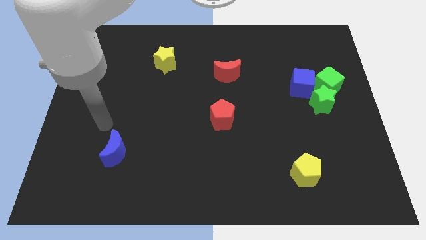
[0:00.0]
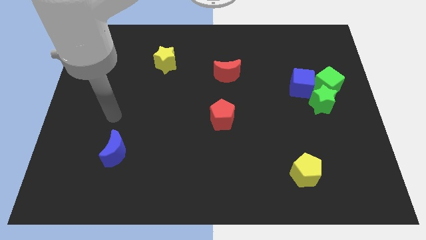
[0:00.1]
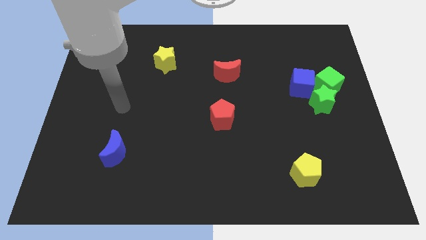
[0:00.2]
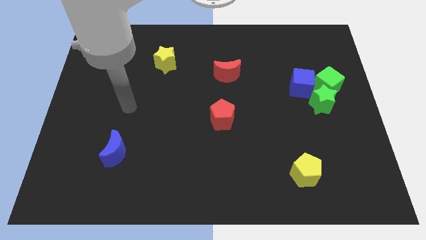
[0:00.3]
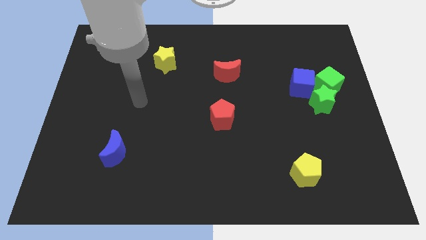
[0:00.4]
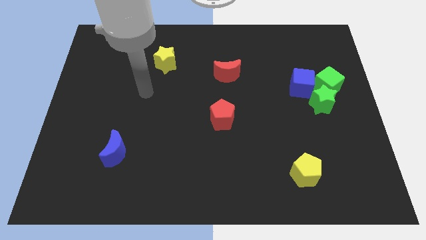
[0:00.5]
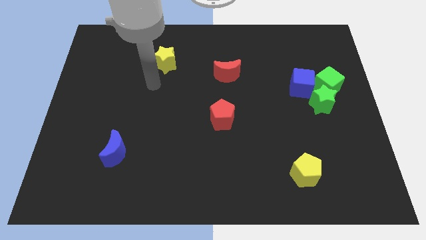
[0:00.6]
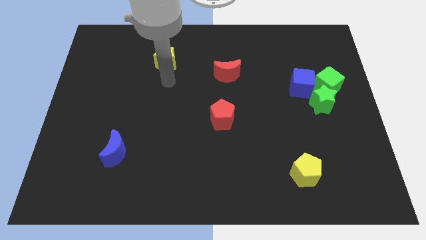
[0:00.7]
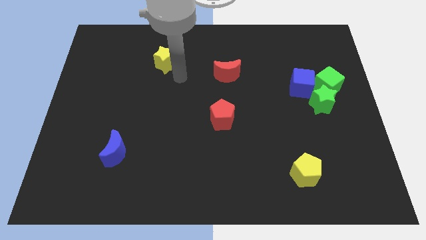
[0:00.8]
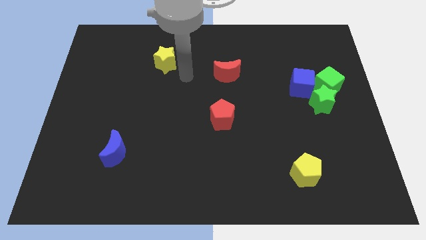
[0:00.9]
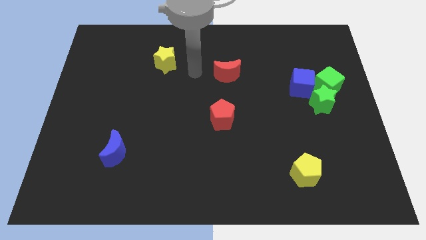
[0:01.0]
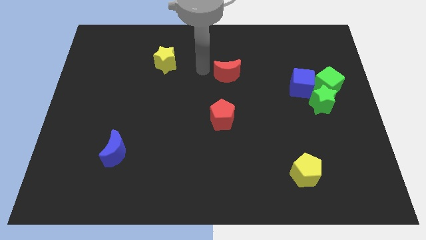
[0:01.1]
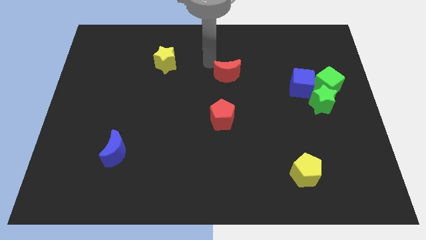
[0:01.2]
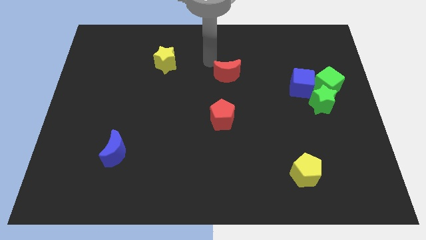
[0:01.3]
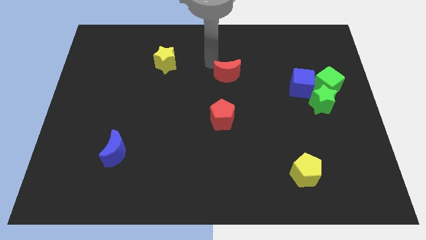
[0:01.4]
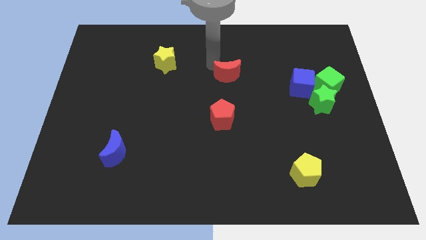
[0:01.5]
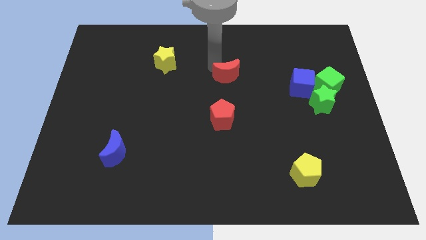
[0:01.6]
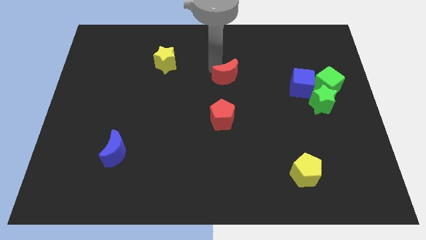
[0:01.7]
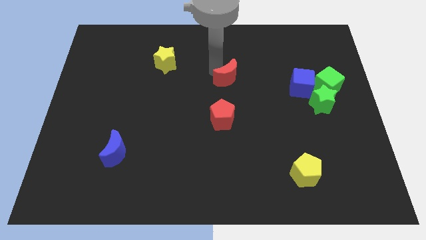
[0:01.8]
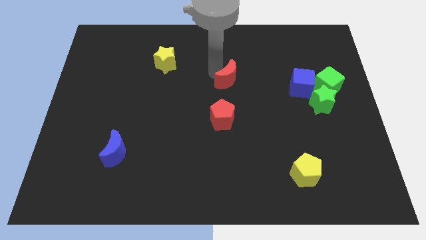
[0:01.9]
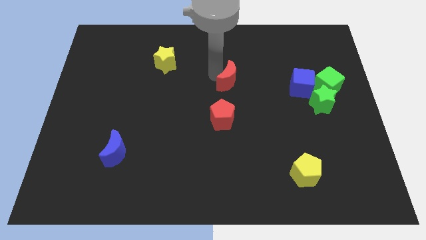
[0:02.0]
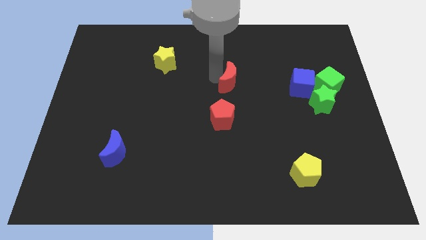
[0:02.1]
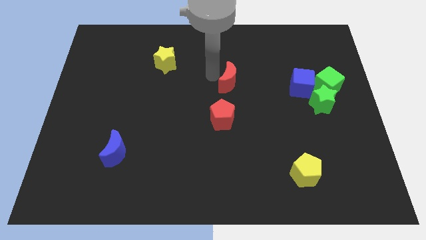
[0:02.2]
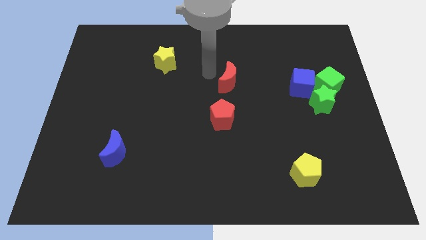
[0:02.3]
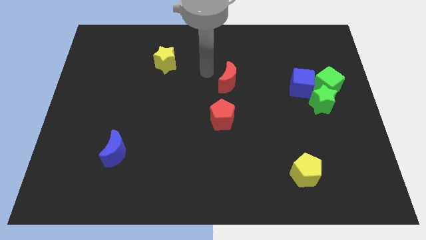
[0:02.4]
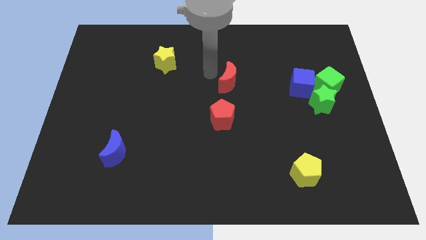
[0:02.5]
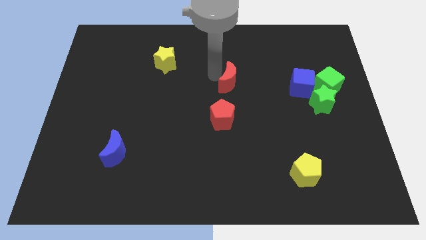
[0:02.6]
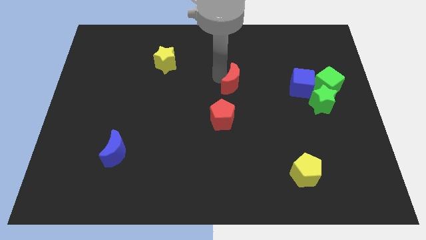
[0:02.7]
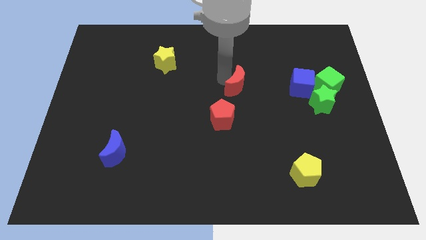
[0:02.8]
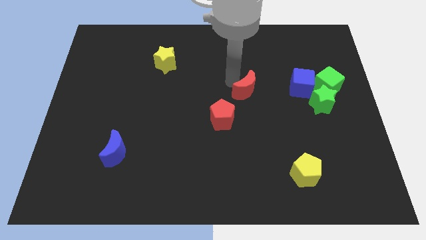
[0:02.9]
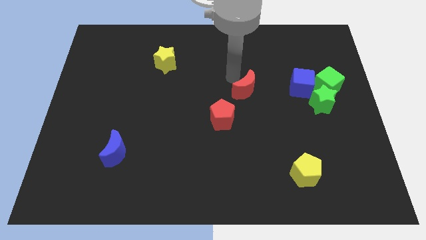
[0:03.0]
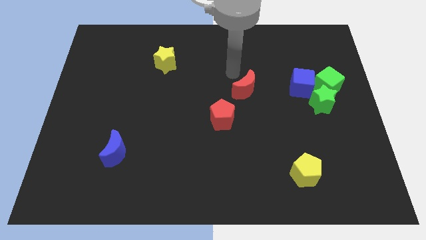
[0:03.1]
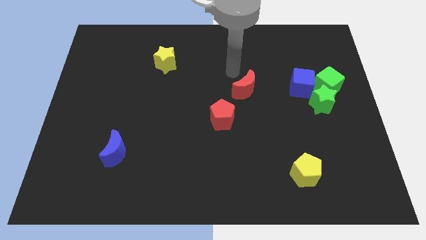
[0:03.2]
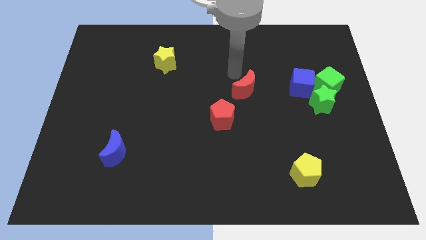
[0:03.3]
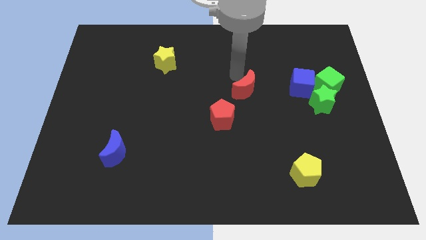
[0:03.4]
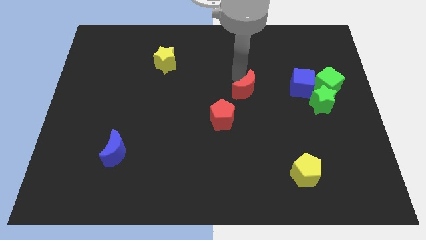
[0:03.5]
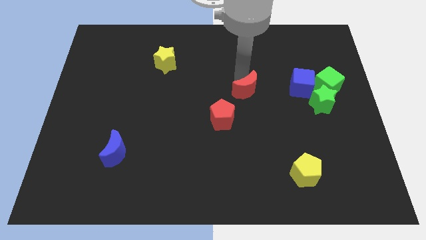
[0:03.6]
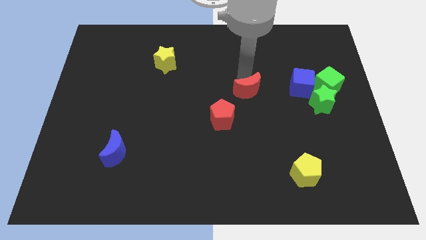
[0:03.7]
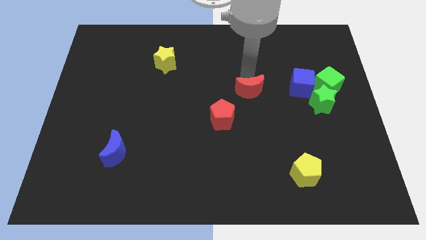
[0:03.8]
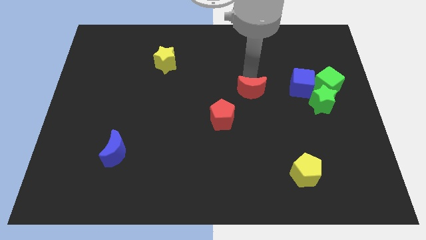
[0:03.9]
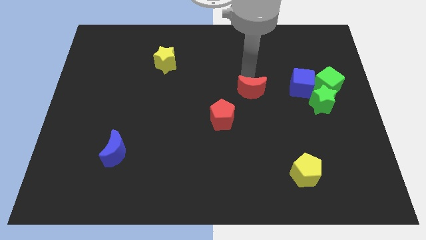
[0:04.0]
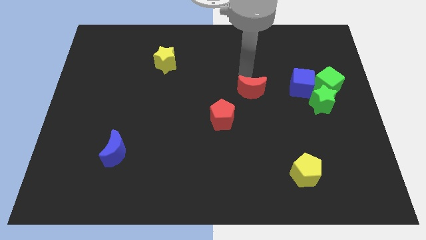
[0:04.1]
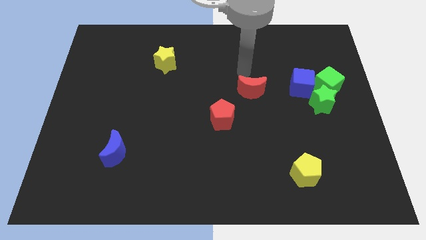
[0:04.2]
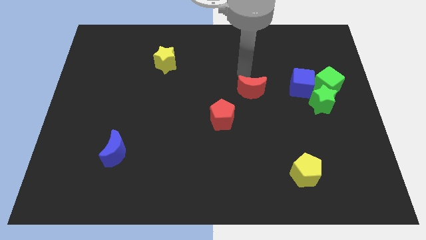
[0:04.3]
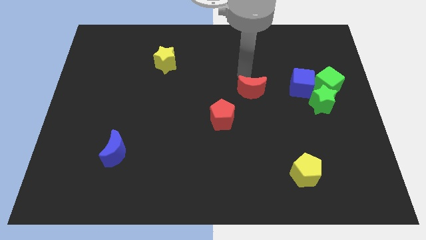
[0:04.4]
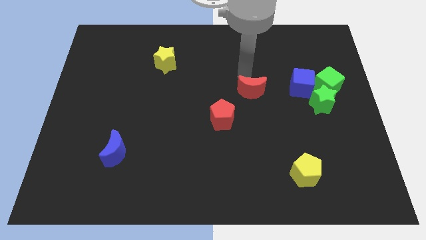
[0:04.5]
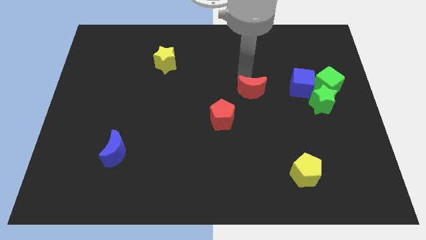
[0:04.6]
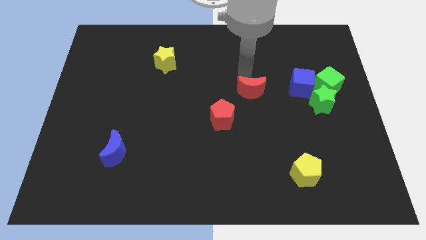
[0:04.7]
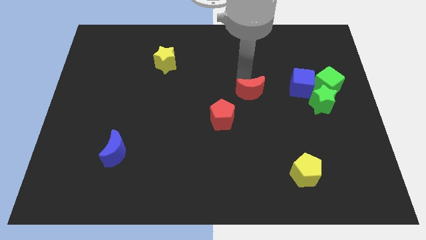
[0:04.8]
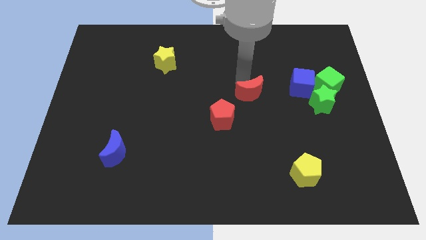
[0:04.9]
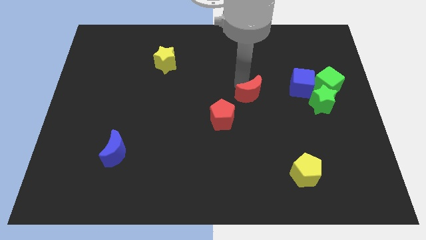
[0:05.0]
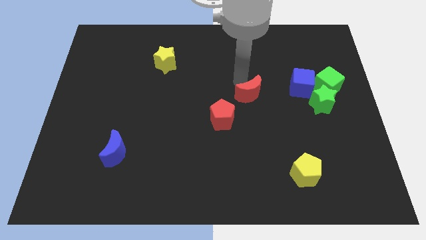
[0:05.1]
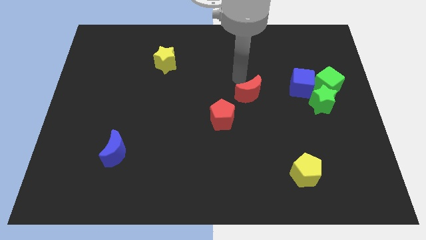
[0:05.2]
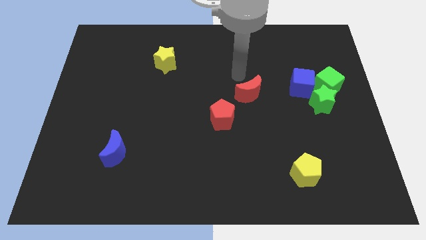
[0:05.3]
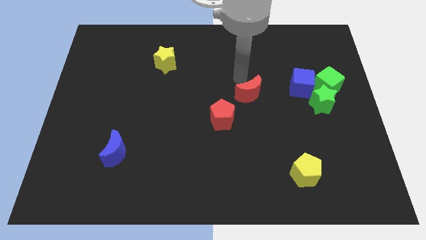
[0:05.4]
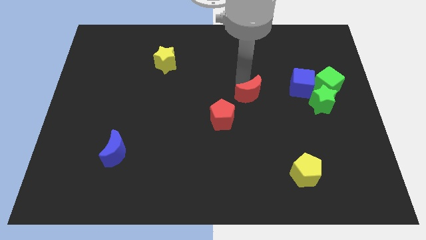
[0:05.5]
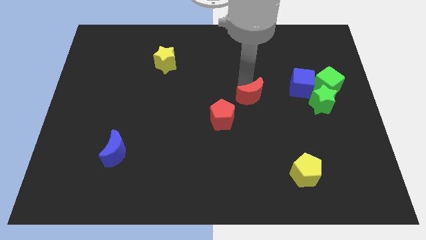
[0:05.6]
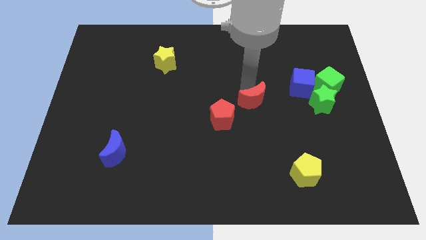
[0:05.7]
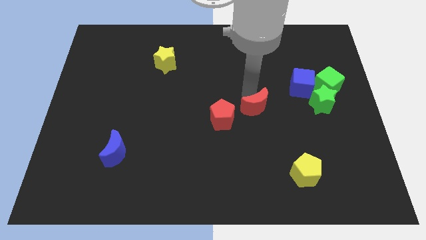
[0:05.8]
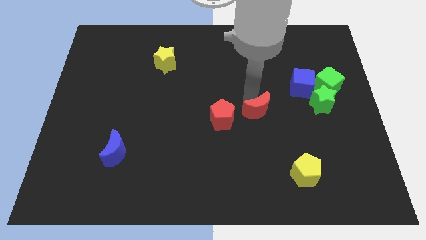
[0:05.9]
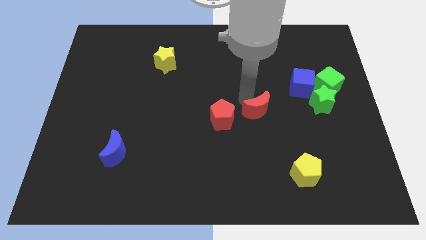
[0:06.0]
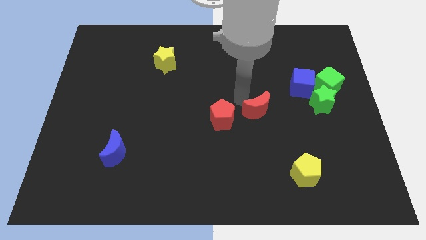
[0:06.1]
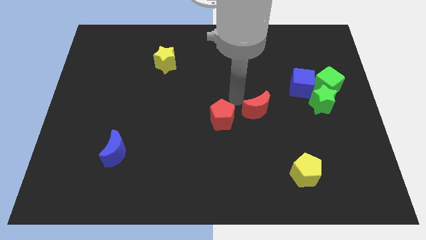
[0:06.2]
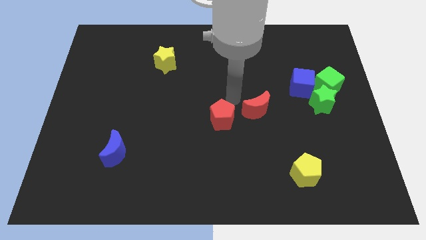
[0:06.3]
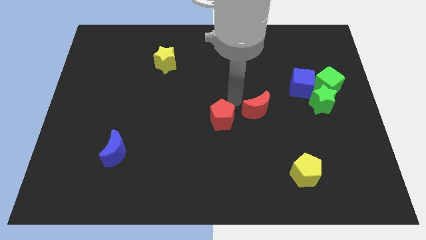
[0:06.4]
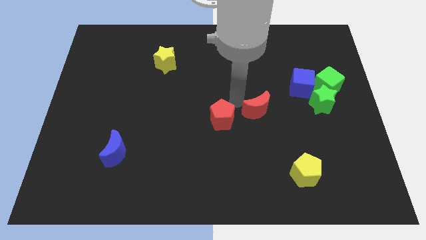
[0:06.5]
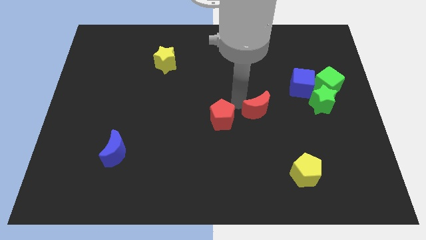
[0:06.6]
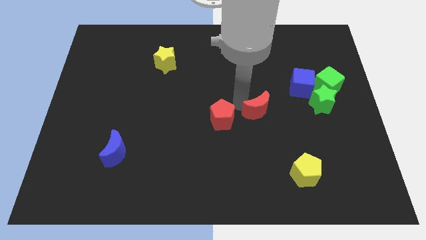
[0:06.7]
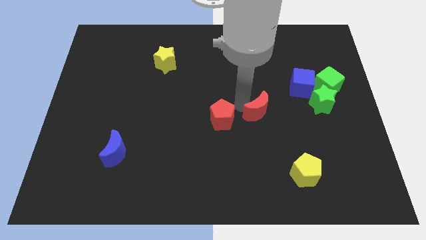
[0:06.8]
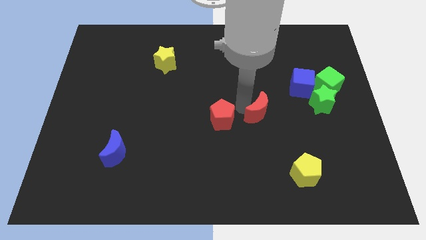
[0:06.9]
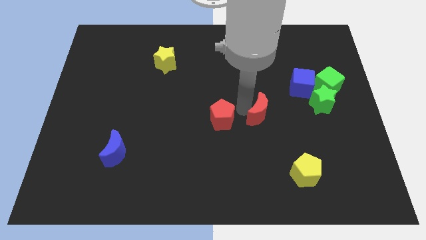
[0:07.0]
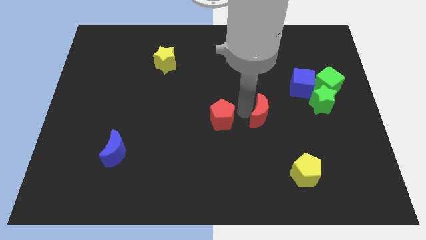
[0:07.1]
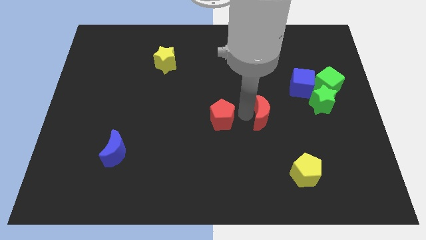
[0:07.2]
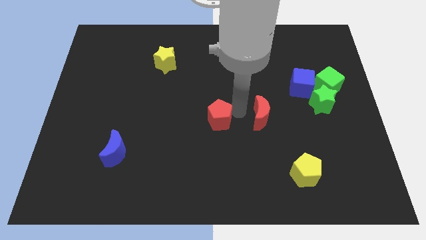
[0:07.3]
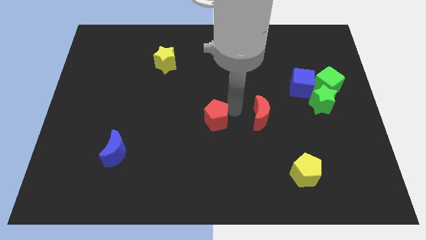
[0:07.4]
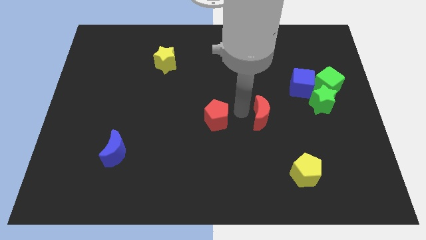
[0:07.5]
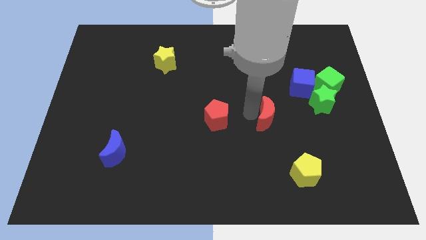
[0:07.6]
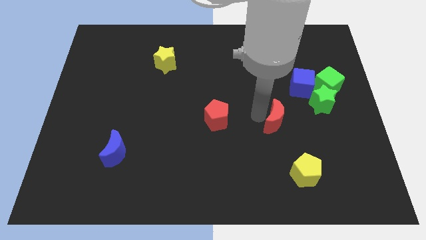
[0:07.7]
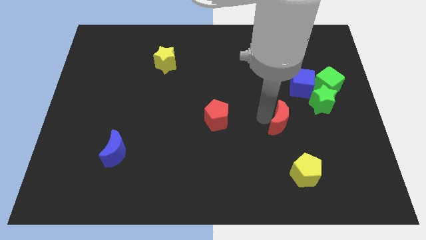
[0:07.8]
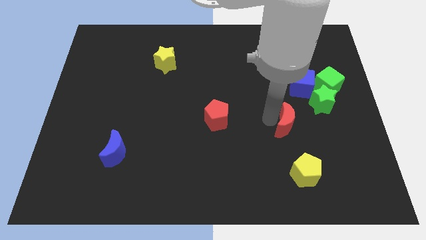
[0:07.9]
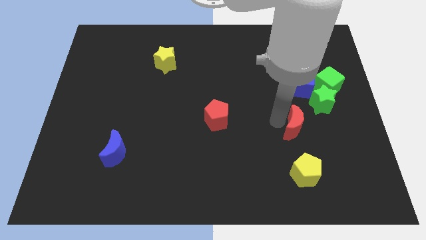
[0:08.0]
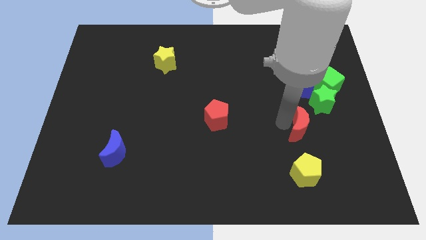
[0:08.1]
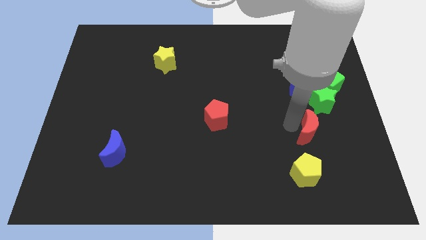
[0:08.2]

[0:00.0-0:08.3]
push the red moon to the bottom of the green star
